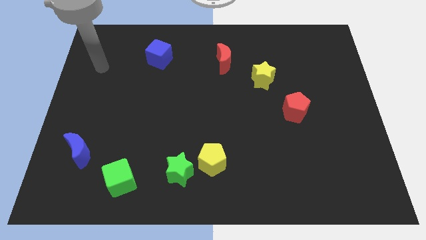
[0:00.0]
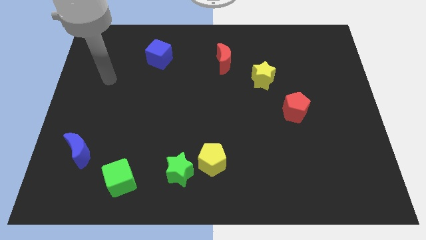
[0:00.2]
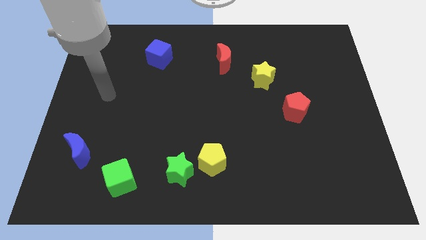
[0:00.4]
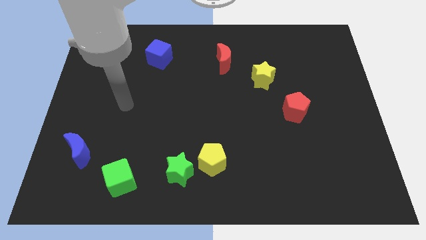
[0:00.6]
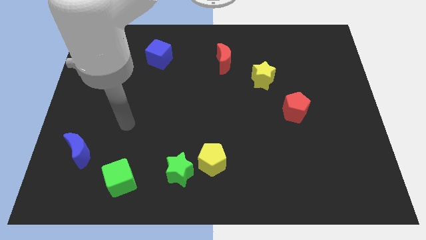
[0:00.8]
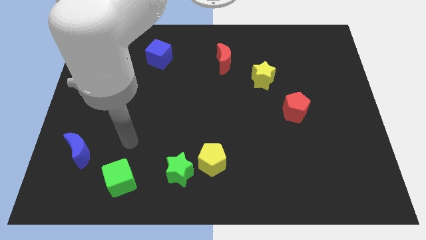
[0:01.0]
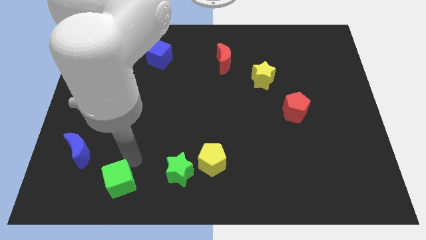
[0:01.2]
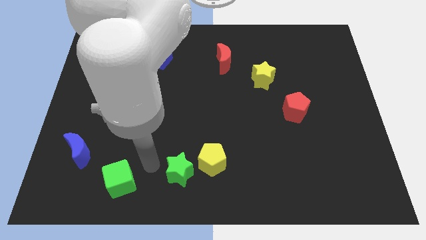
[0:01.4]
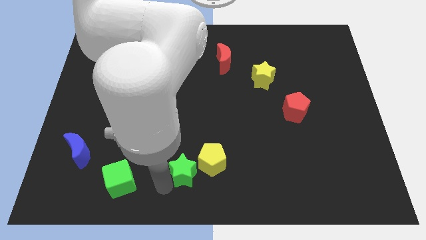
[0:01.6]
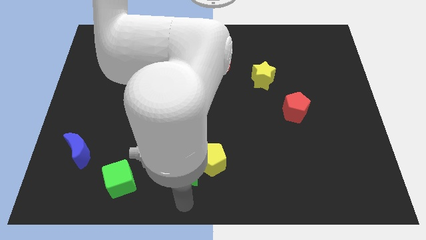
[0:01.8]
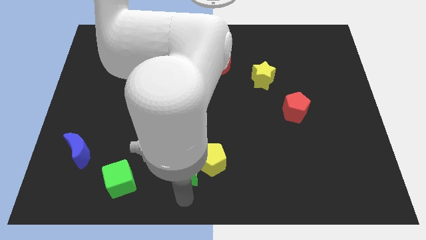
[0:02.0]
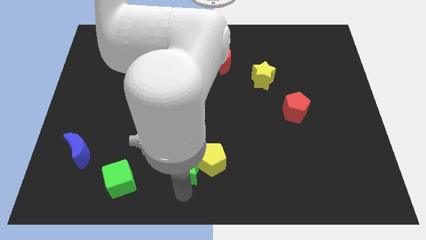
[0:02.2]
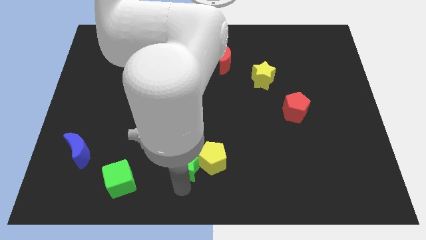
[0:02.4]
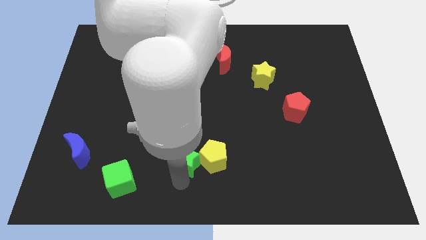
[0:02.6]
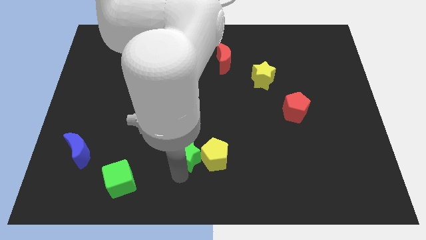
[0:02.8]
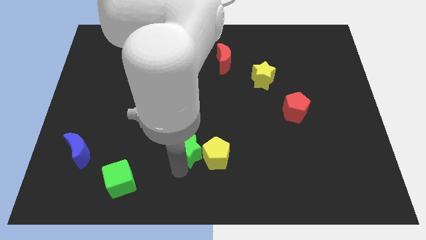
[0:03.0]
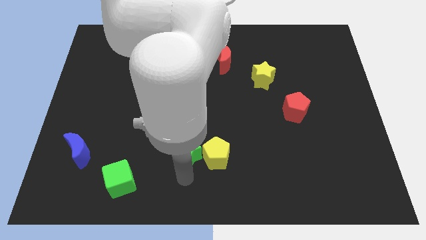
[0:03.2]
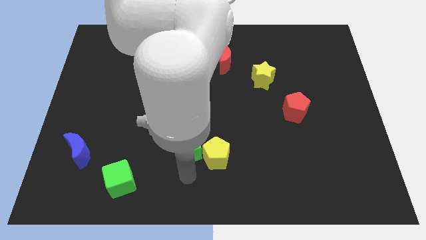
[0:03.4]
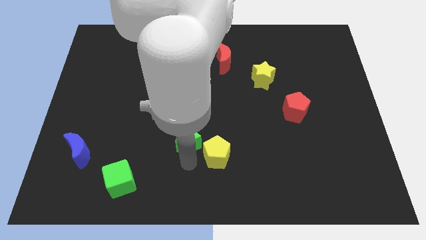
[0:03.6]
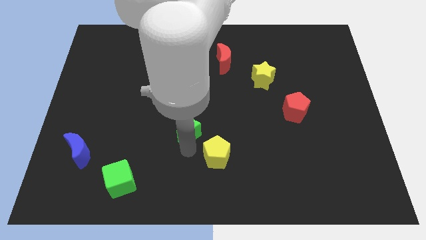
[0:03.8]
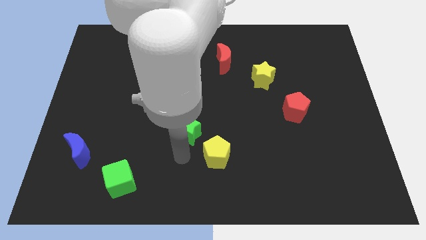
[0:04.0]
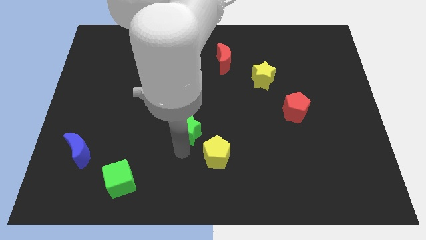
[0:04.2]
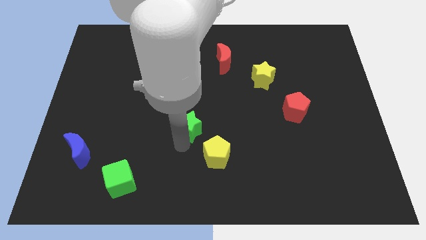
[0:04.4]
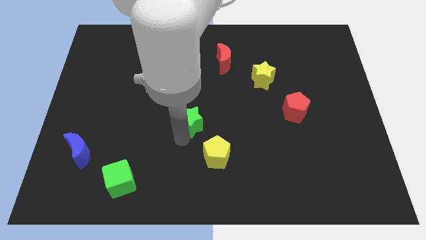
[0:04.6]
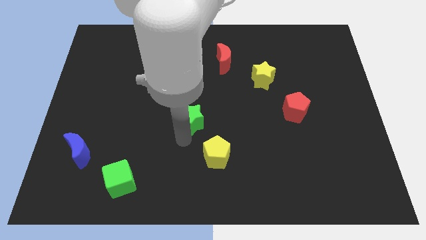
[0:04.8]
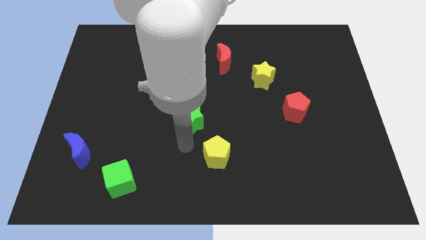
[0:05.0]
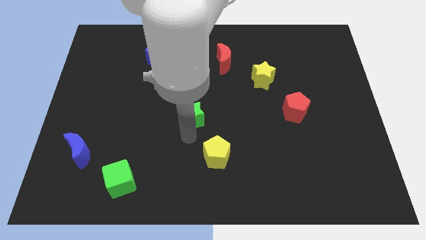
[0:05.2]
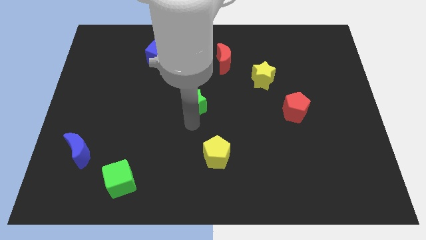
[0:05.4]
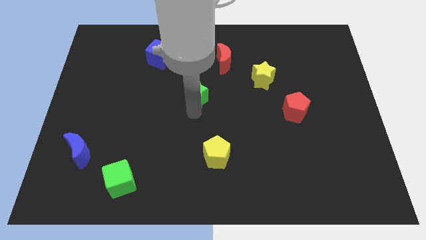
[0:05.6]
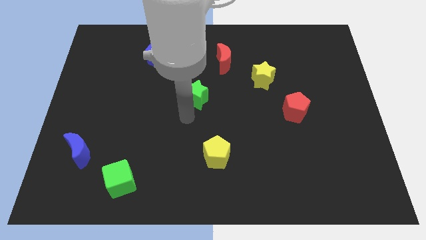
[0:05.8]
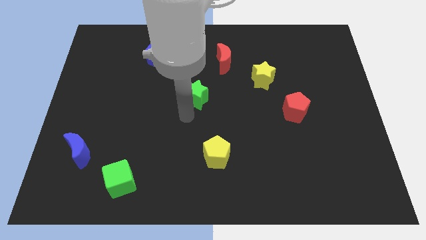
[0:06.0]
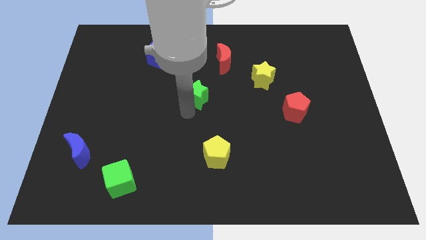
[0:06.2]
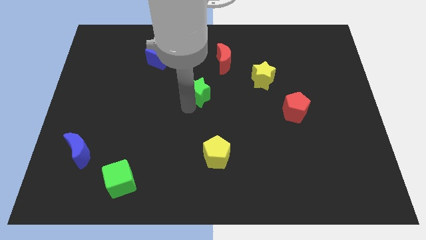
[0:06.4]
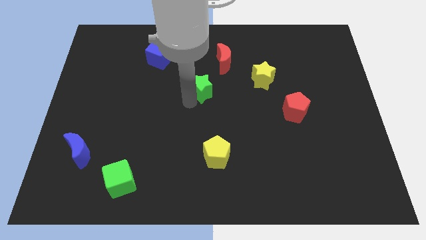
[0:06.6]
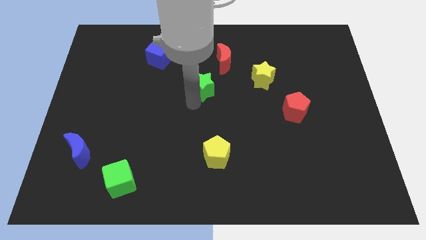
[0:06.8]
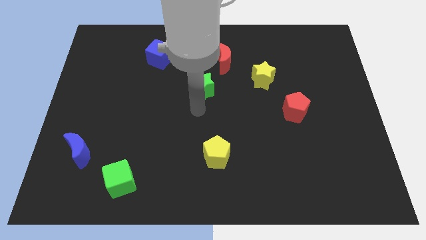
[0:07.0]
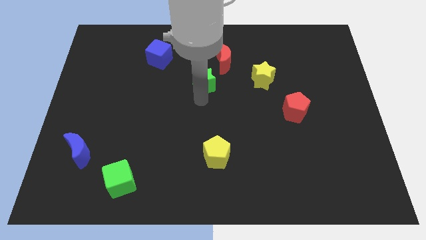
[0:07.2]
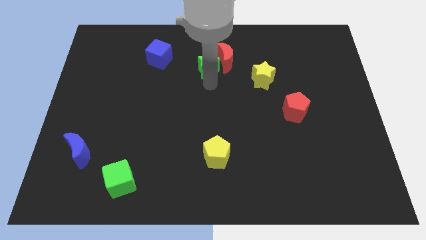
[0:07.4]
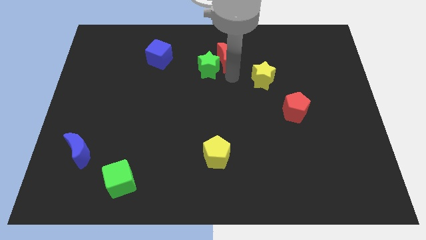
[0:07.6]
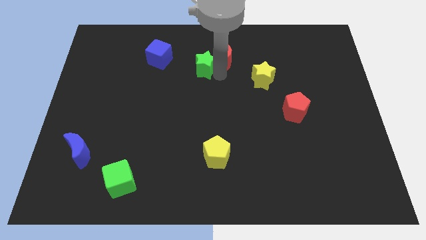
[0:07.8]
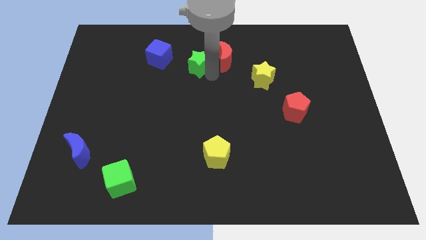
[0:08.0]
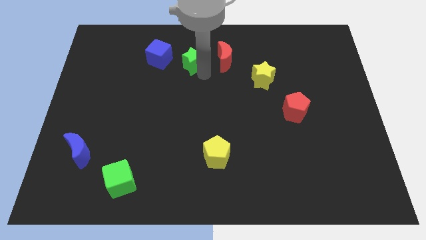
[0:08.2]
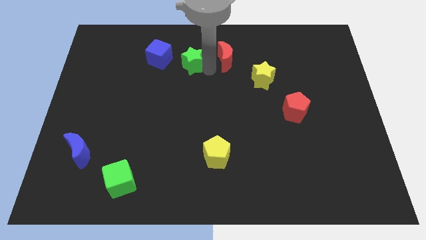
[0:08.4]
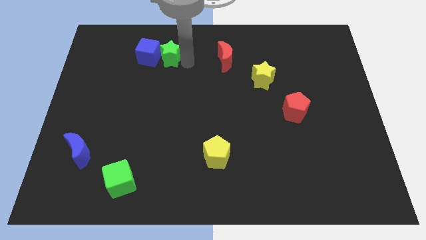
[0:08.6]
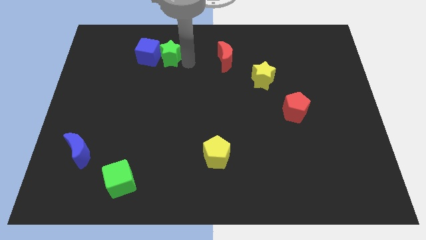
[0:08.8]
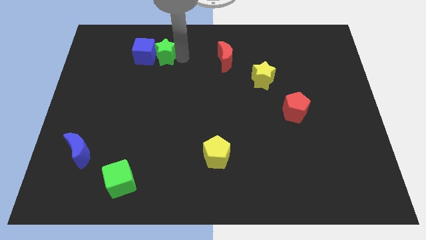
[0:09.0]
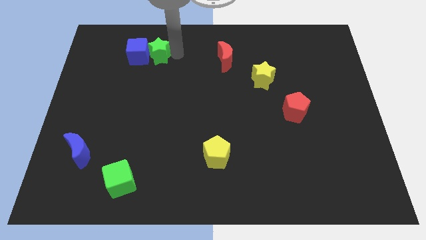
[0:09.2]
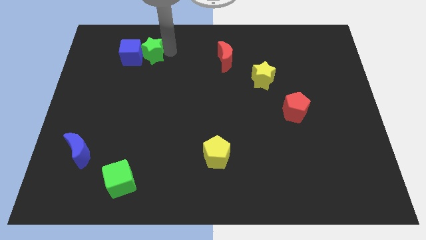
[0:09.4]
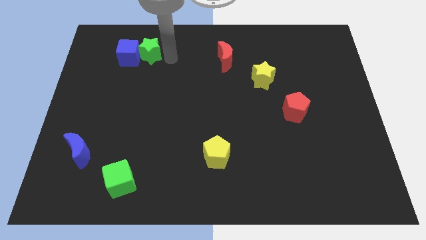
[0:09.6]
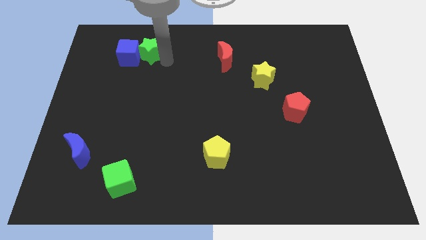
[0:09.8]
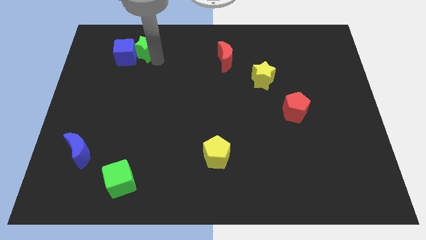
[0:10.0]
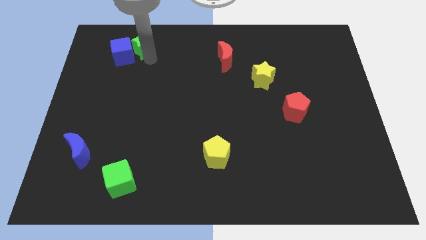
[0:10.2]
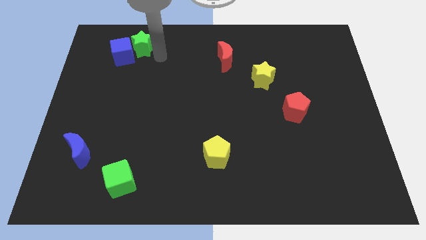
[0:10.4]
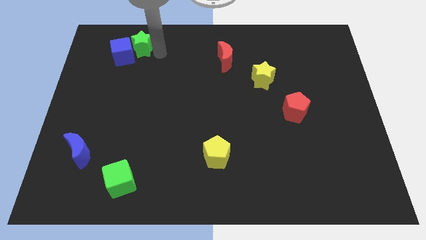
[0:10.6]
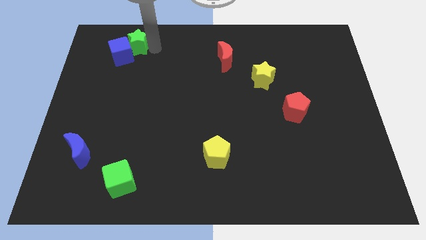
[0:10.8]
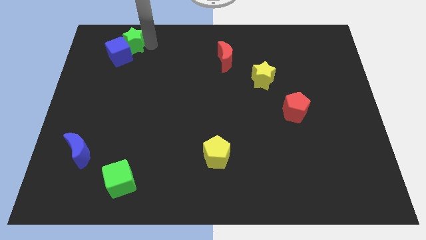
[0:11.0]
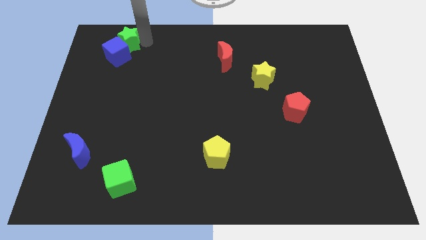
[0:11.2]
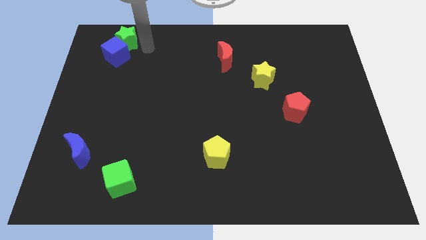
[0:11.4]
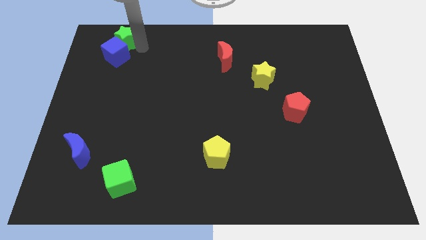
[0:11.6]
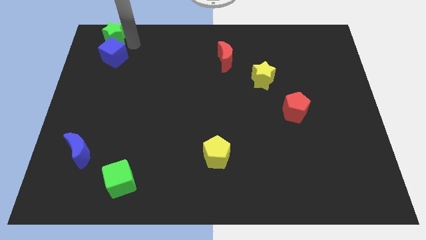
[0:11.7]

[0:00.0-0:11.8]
slide the green star to the upper left corner

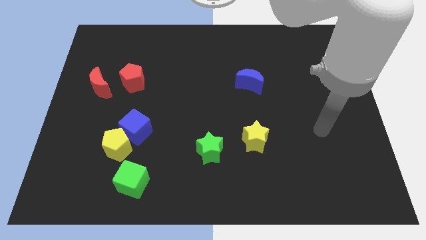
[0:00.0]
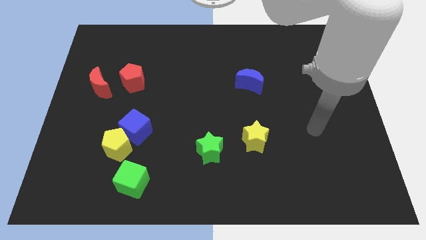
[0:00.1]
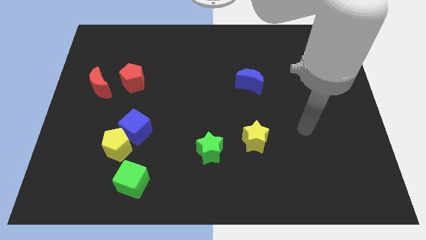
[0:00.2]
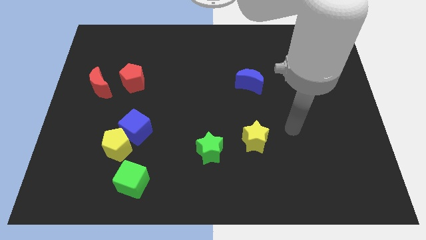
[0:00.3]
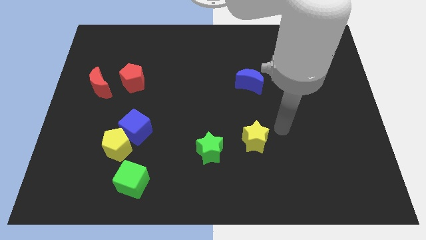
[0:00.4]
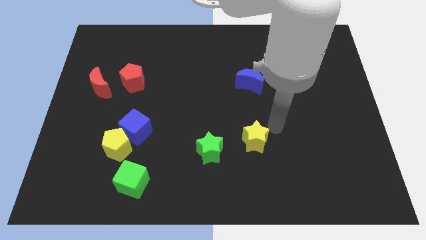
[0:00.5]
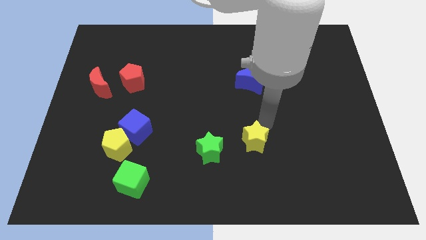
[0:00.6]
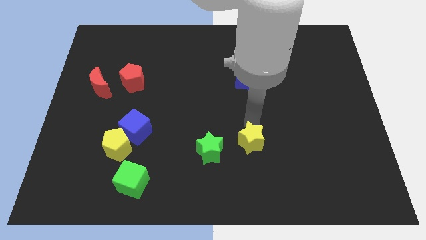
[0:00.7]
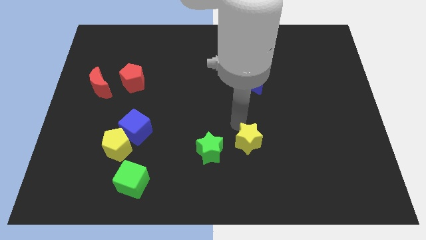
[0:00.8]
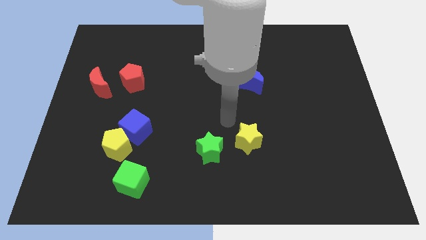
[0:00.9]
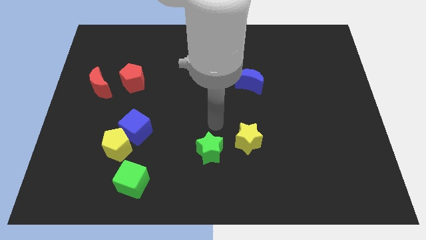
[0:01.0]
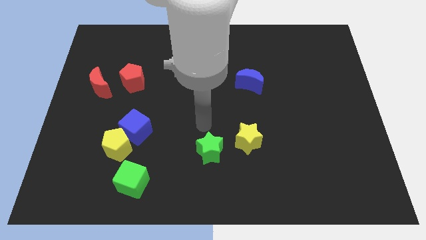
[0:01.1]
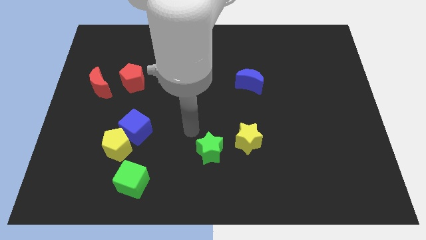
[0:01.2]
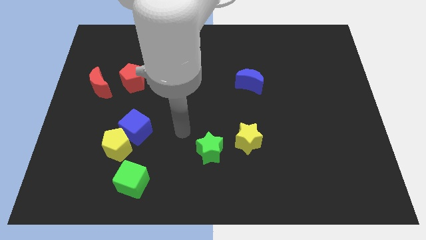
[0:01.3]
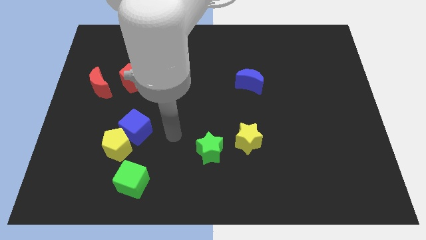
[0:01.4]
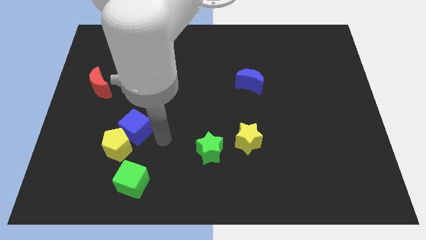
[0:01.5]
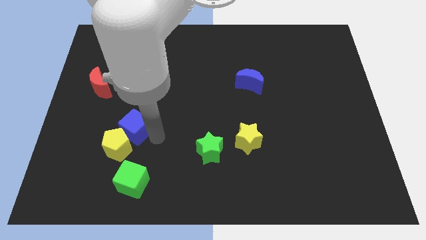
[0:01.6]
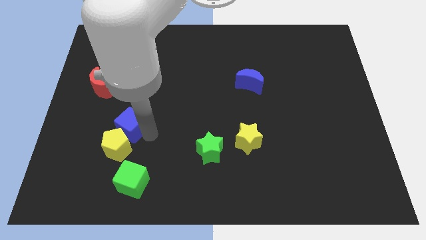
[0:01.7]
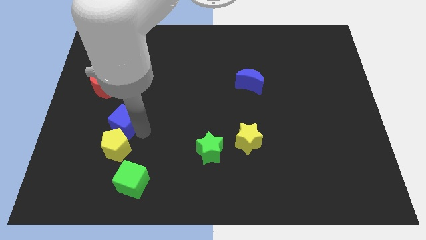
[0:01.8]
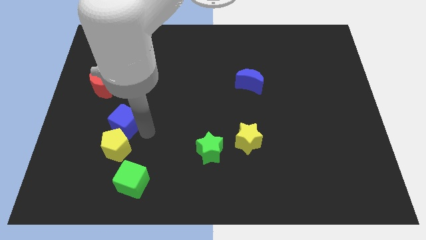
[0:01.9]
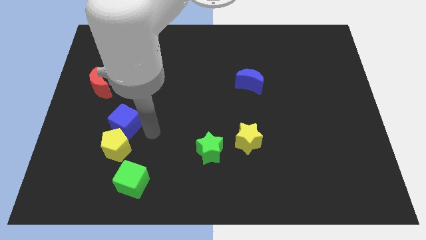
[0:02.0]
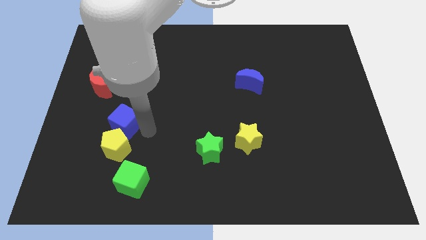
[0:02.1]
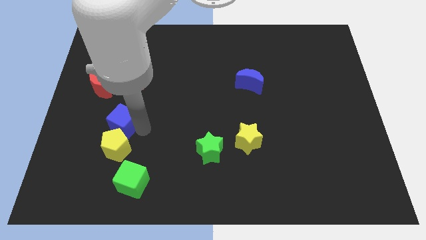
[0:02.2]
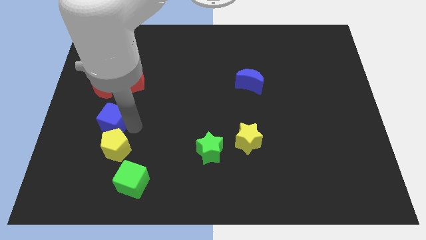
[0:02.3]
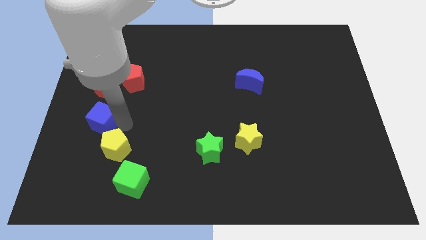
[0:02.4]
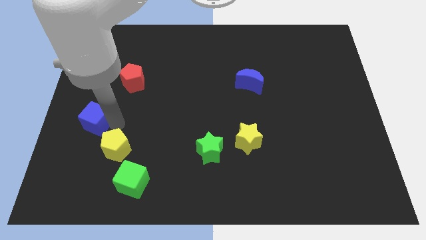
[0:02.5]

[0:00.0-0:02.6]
move the blue cube to the left side of the board
